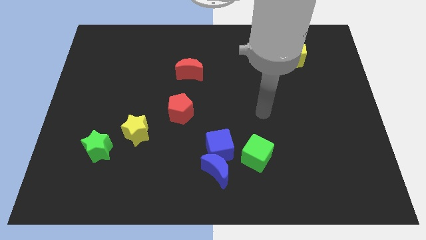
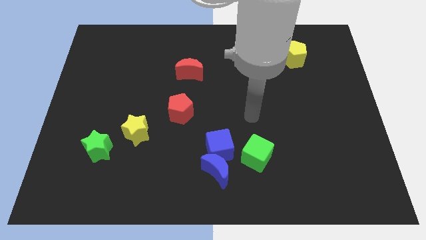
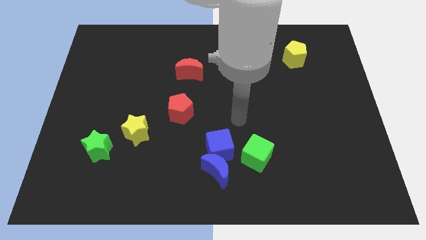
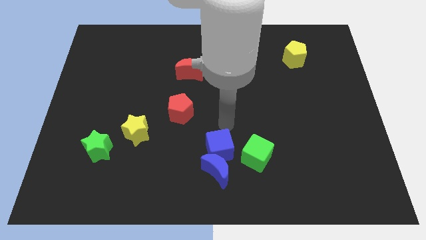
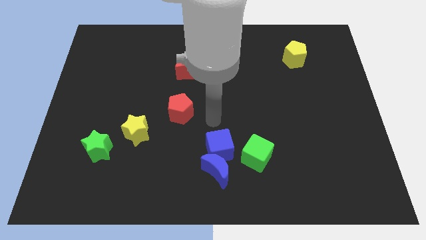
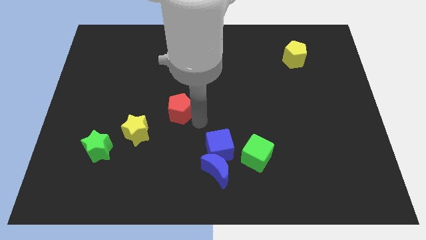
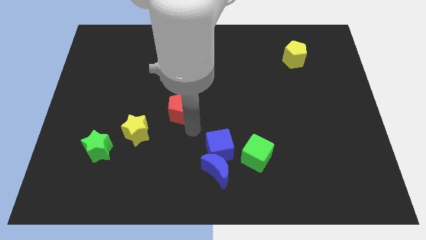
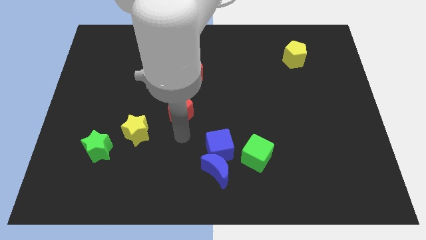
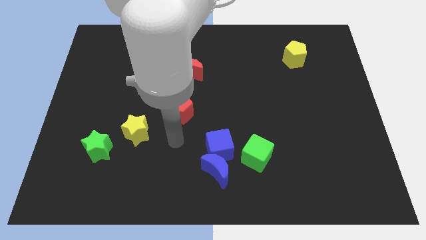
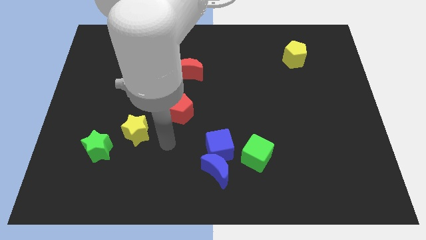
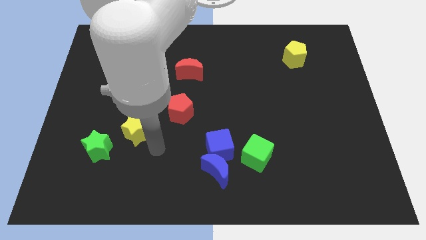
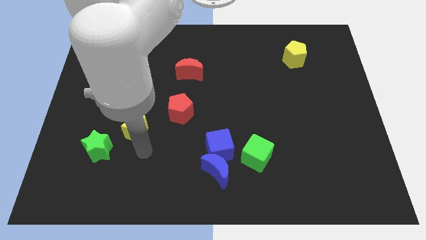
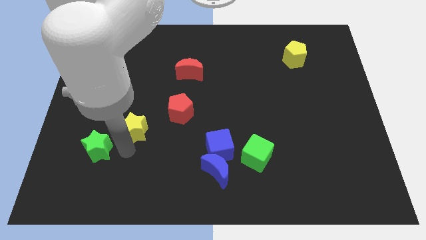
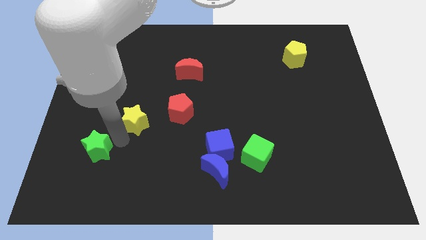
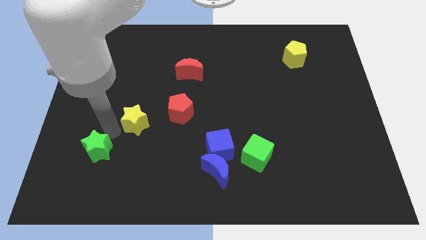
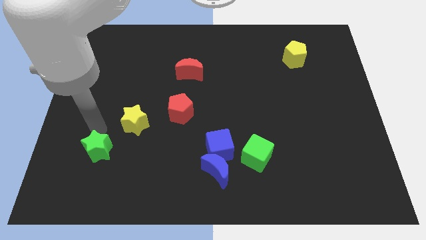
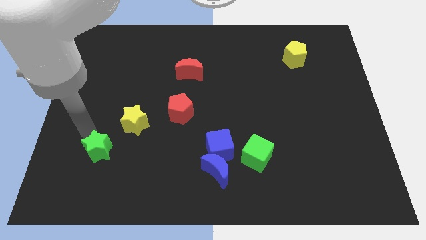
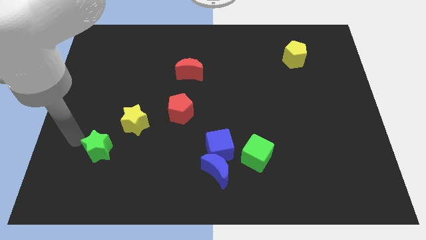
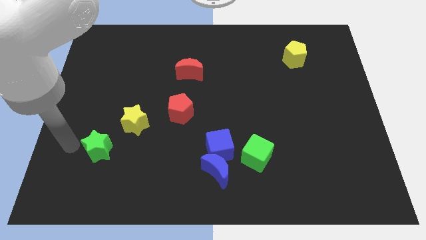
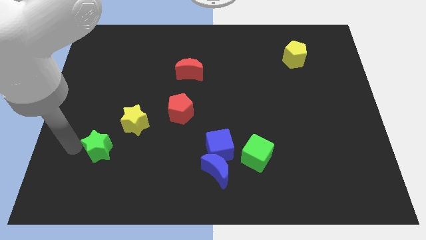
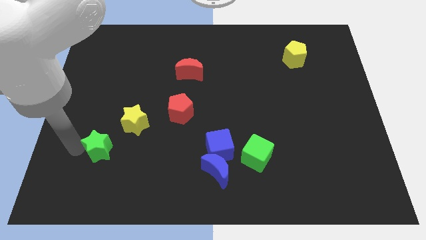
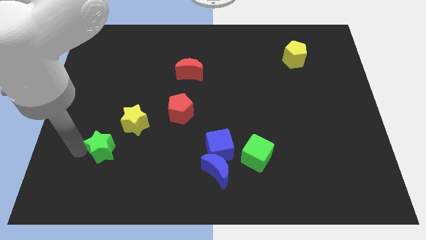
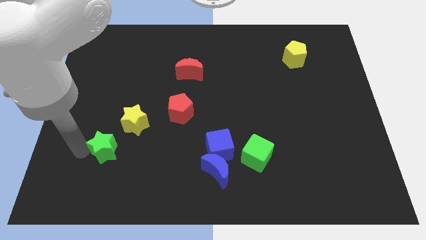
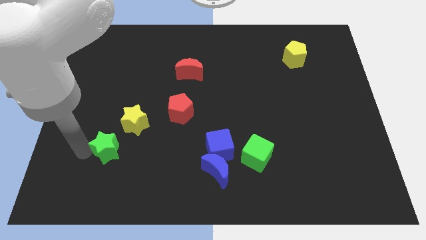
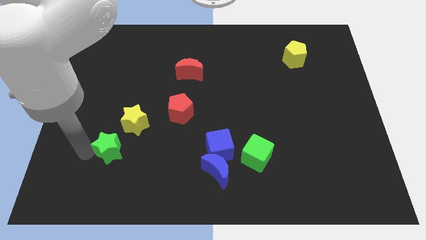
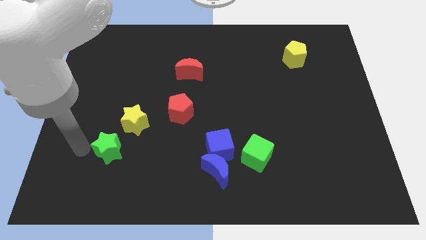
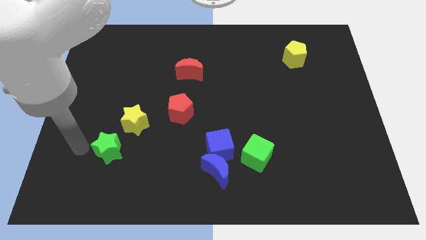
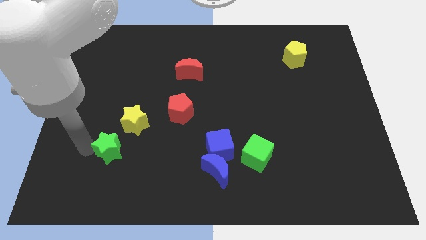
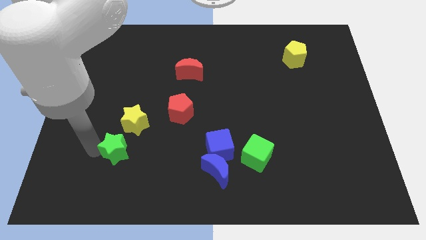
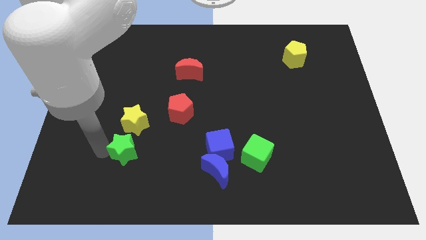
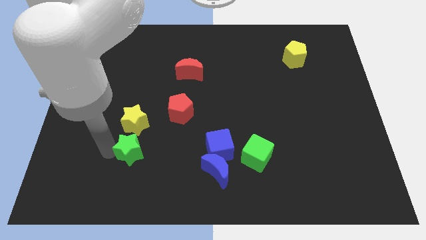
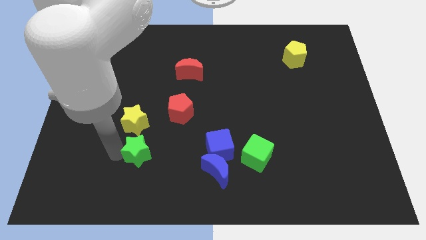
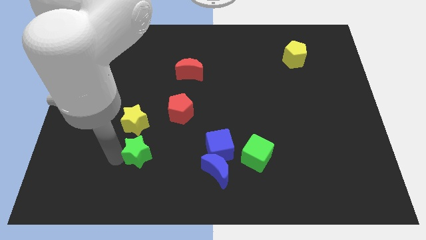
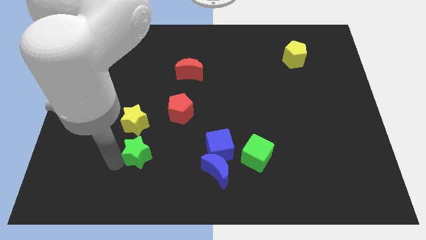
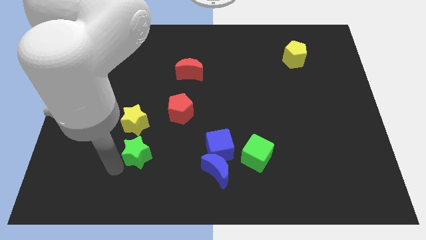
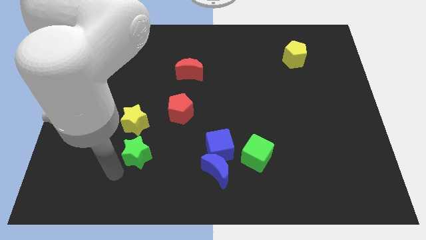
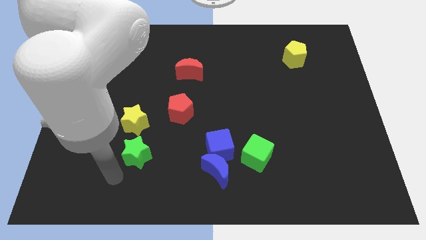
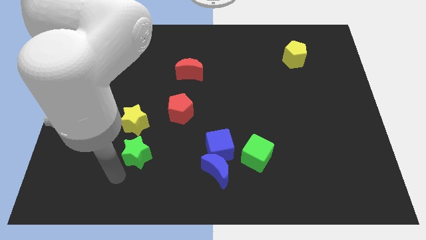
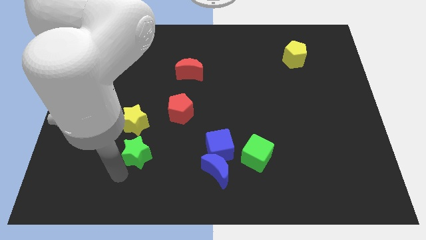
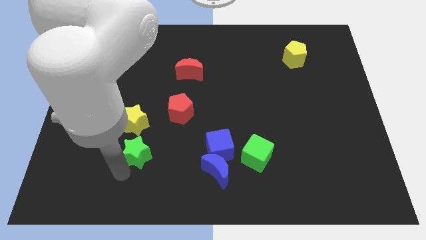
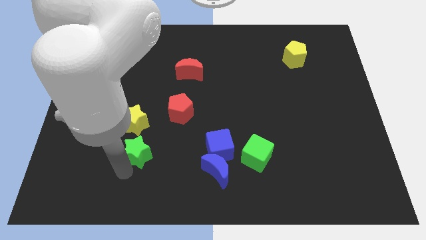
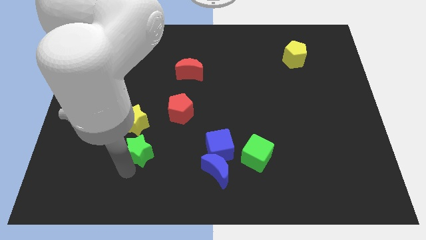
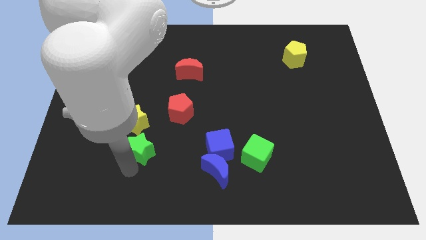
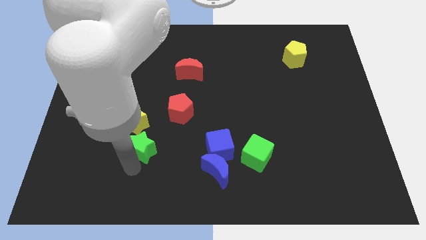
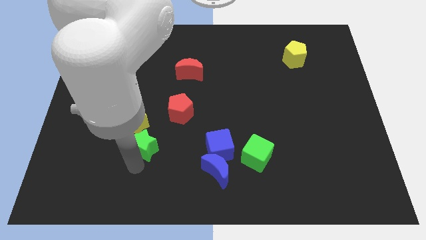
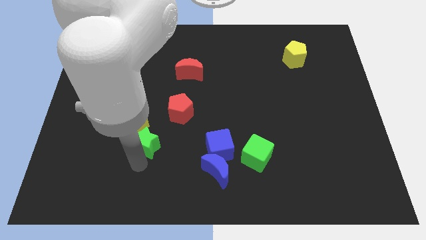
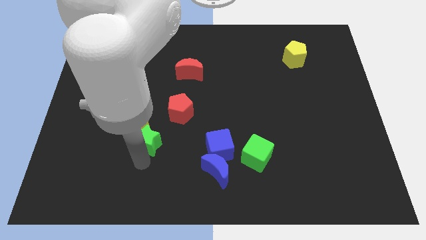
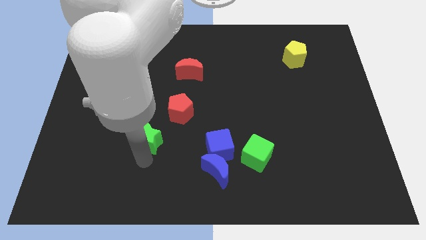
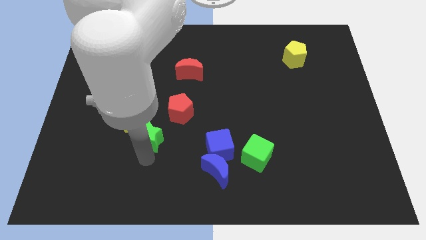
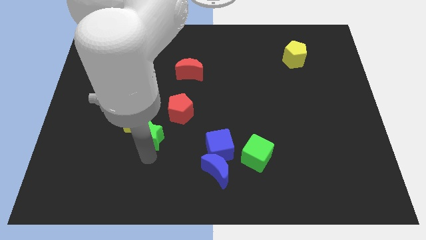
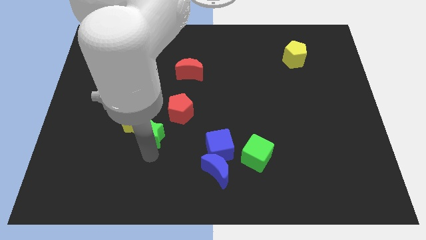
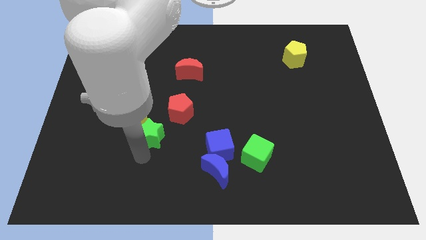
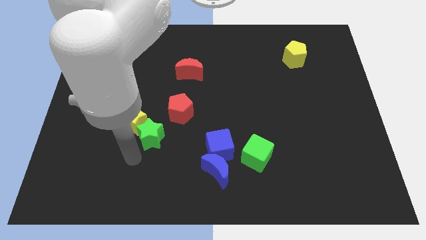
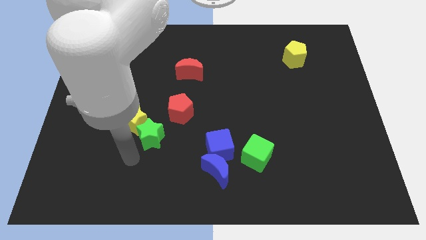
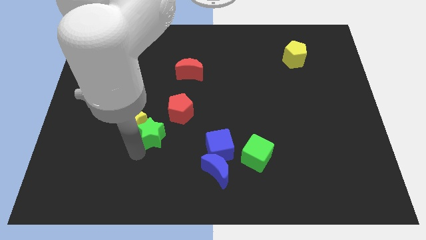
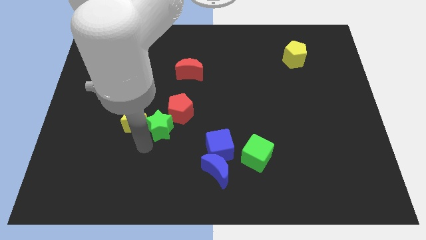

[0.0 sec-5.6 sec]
push the green star to the red pentagon

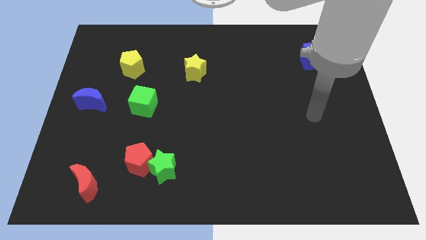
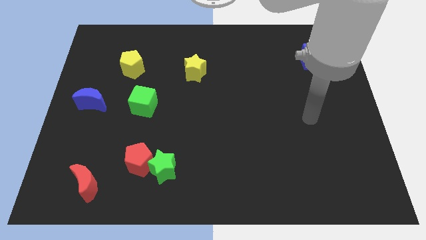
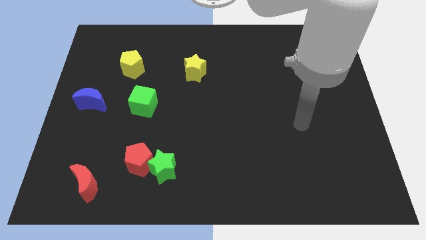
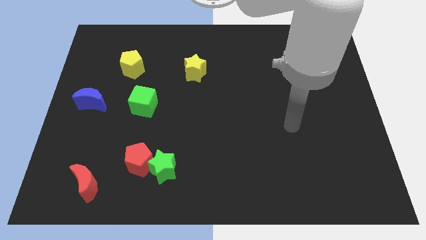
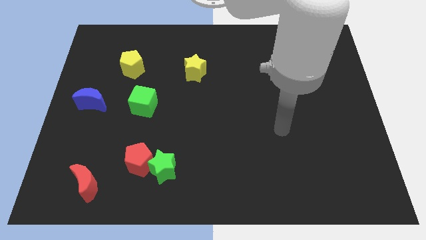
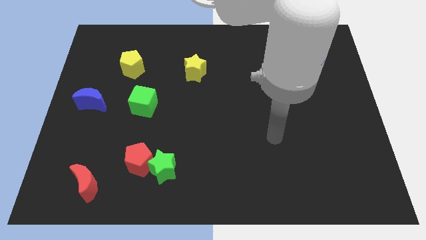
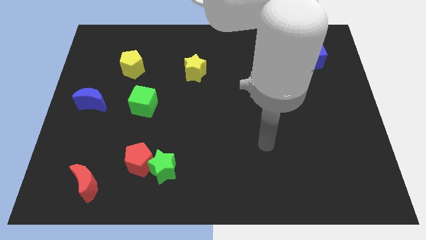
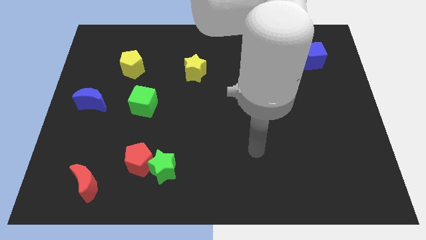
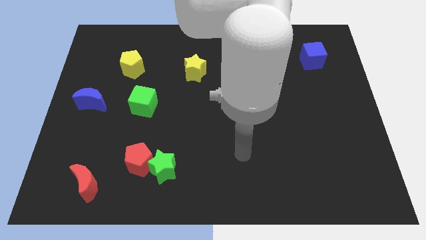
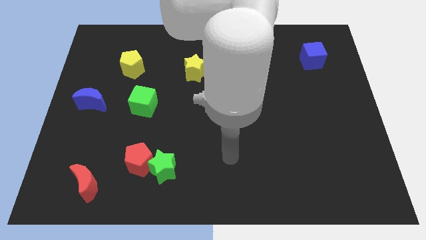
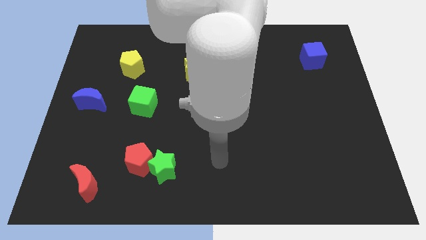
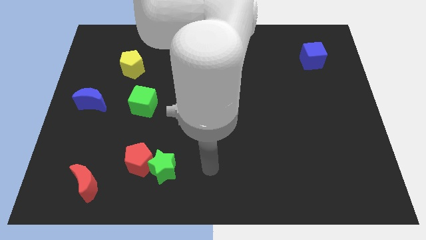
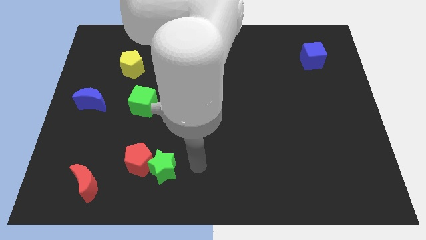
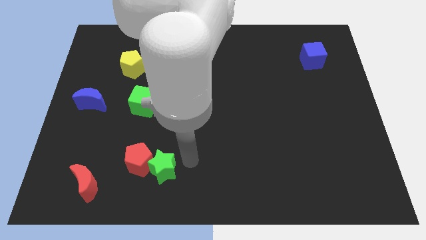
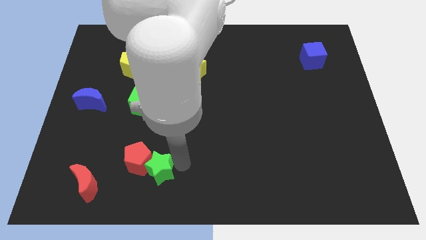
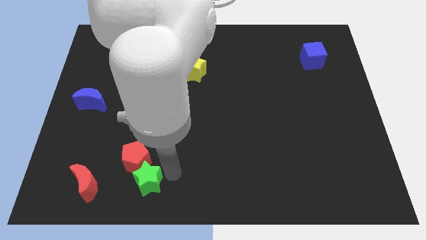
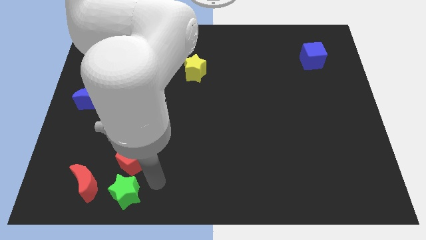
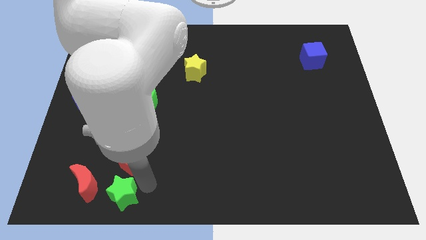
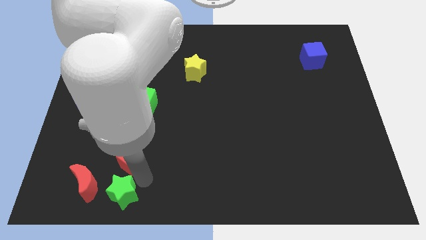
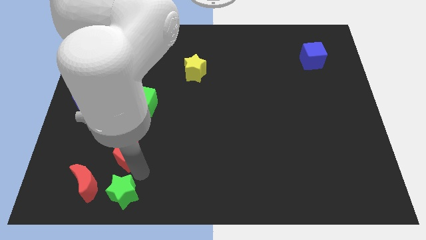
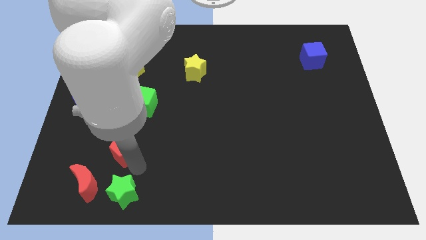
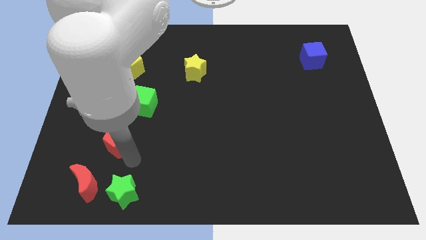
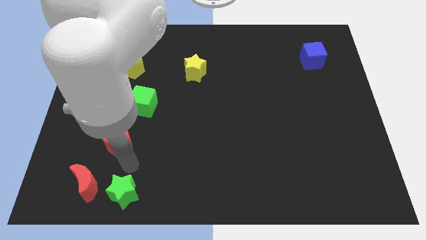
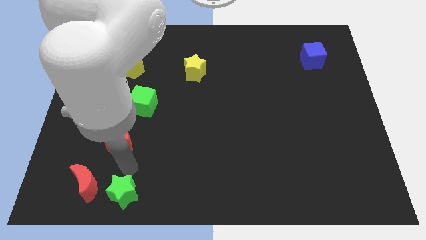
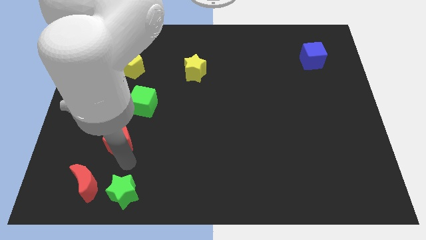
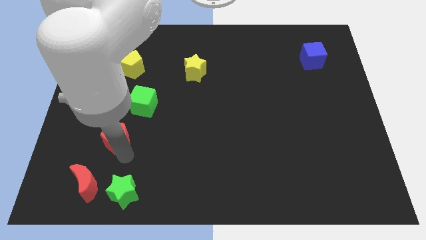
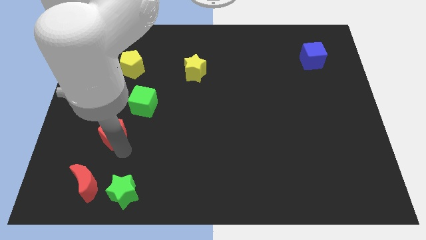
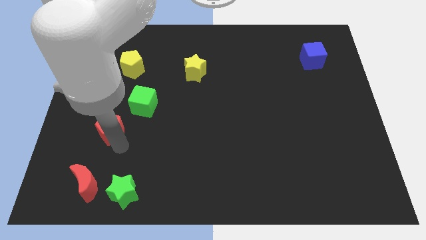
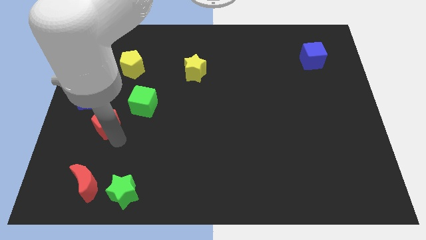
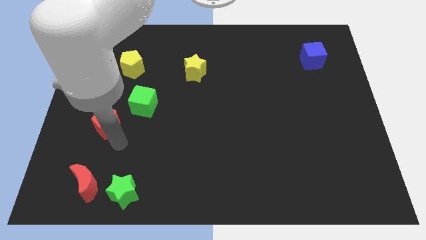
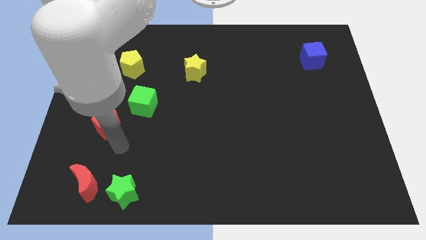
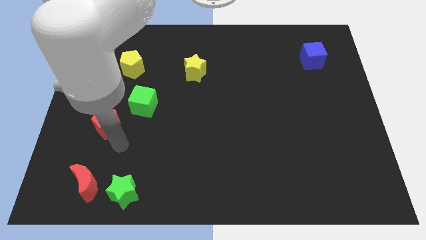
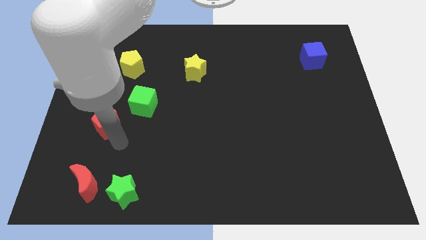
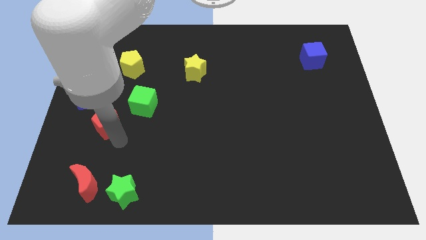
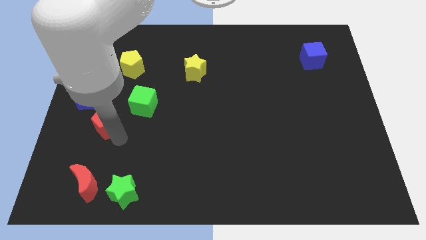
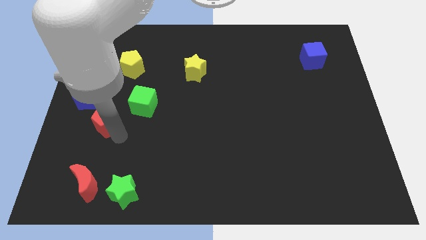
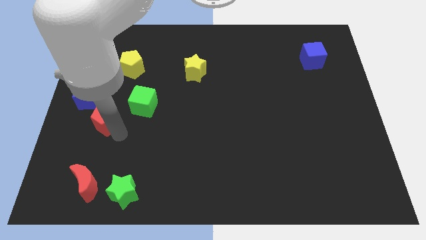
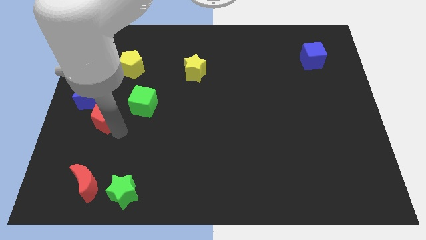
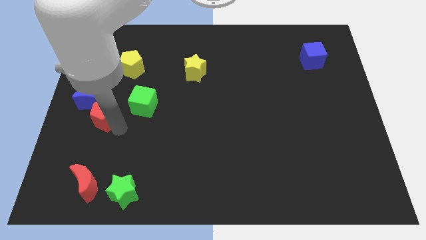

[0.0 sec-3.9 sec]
push the red pentagon towards the blue moon
